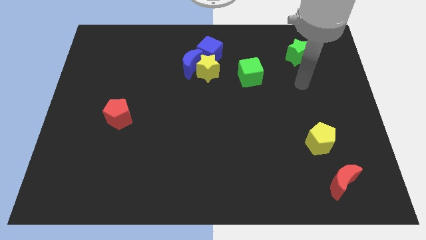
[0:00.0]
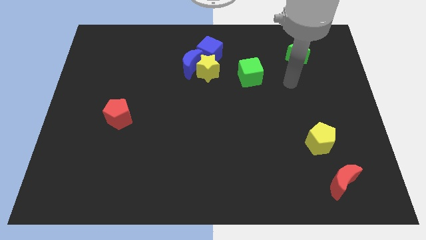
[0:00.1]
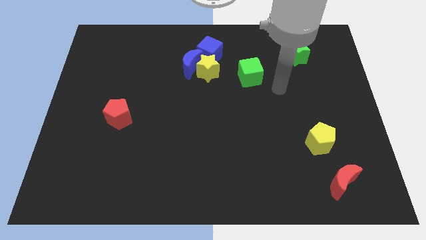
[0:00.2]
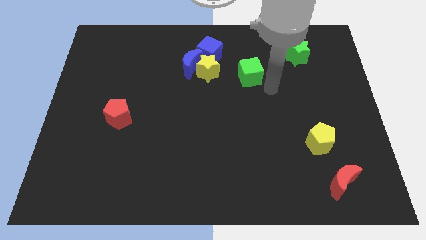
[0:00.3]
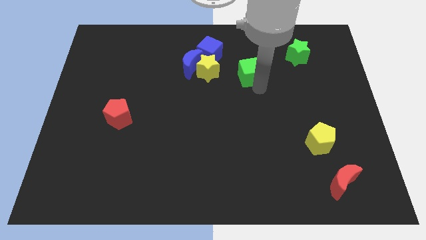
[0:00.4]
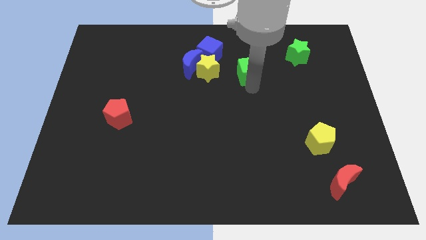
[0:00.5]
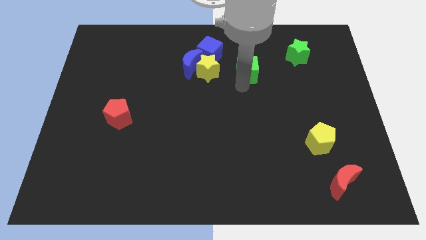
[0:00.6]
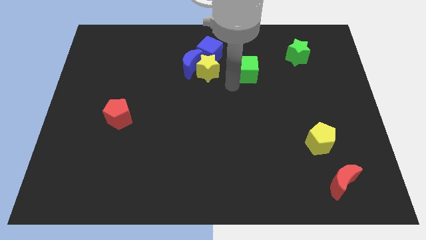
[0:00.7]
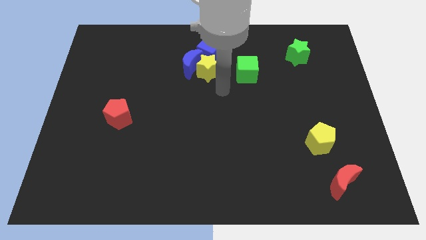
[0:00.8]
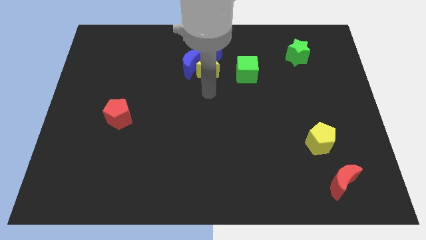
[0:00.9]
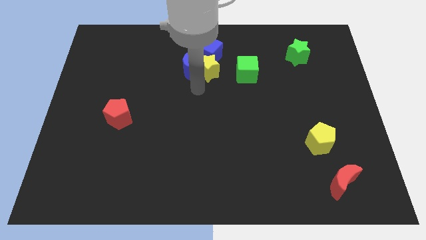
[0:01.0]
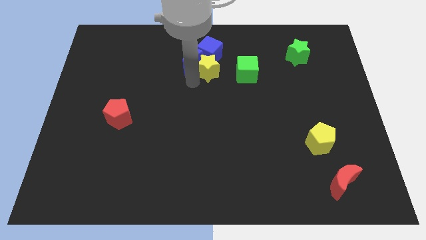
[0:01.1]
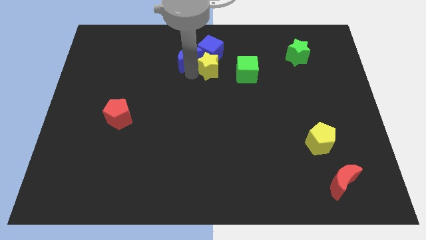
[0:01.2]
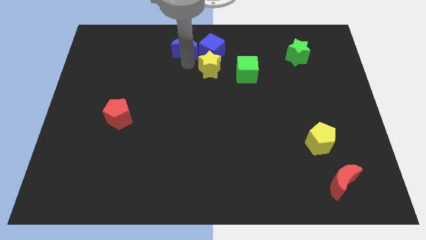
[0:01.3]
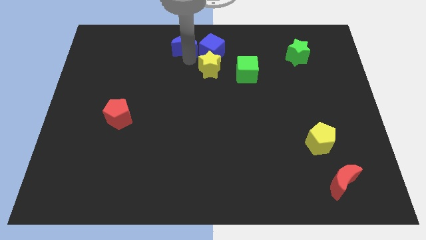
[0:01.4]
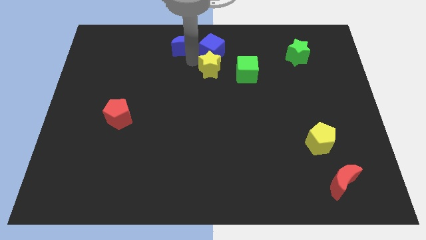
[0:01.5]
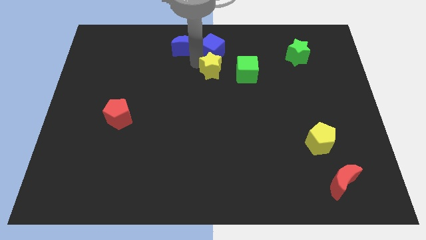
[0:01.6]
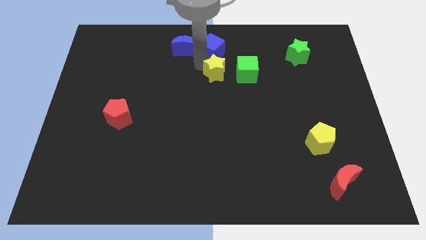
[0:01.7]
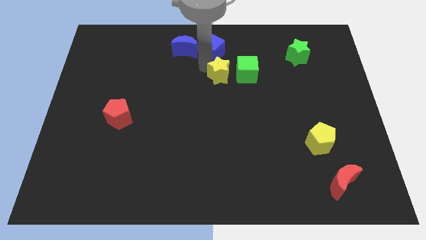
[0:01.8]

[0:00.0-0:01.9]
separate the yellow star from the blue moon and blue cube

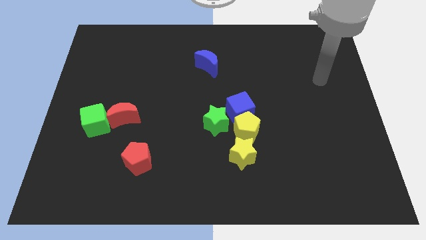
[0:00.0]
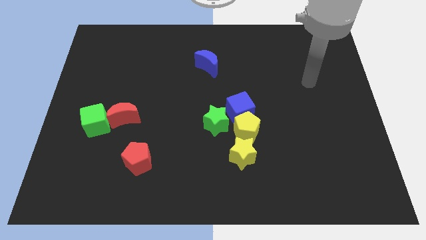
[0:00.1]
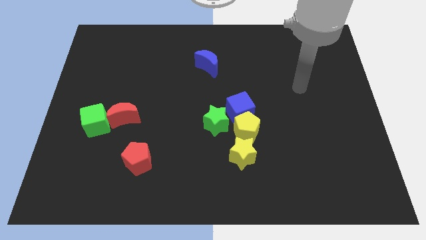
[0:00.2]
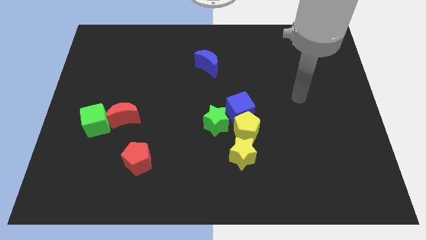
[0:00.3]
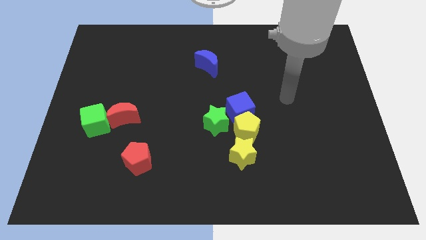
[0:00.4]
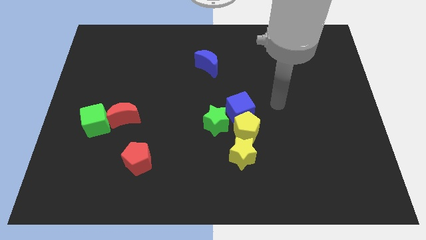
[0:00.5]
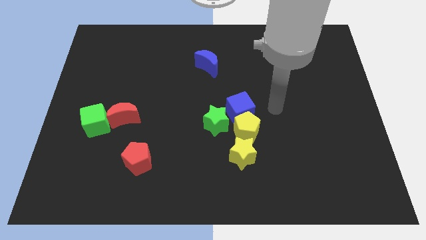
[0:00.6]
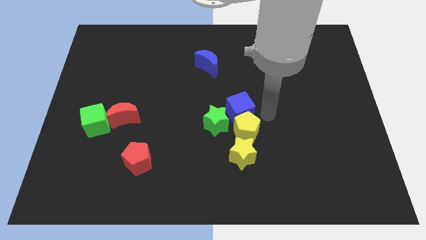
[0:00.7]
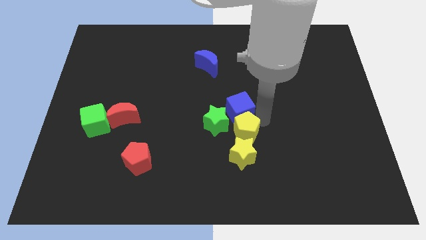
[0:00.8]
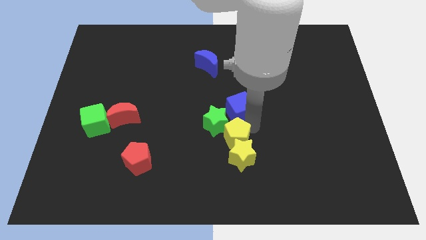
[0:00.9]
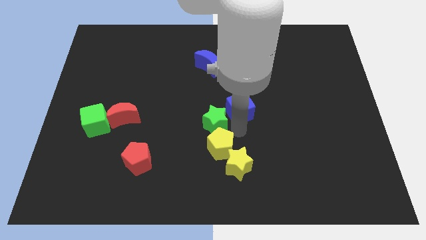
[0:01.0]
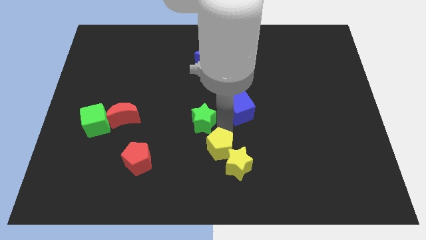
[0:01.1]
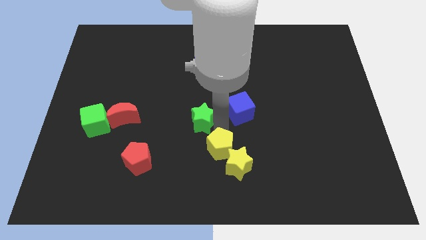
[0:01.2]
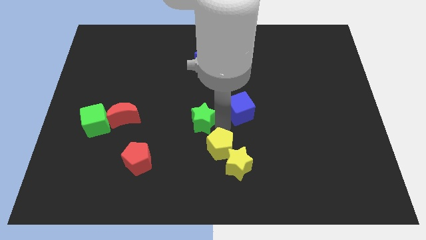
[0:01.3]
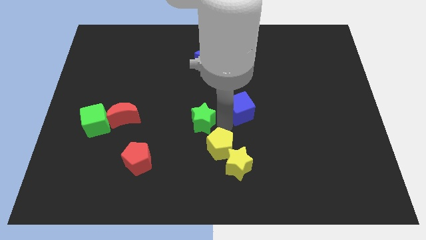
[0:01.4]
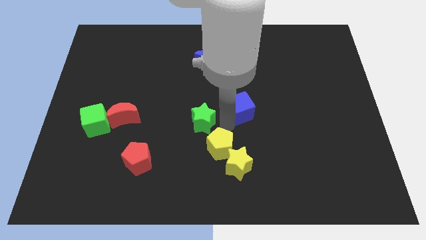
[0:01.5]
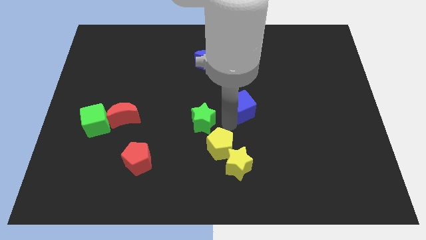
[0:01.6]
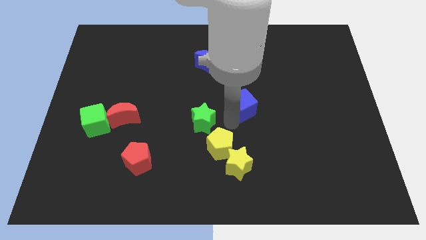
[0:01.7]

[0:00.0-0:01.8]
move the blue cube away from the yellow pentagon and green star

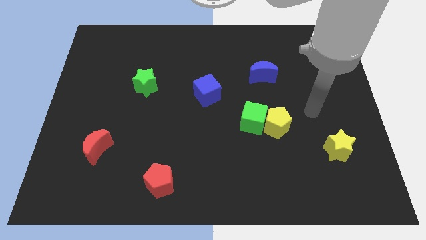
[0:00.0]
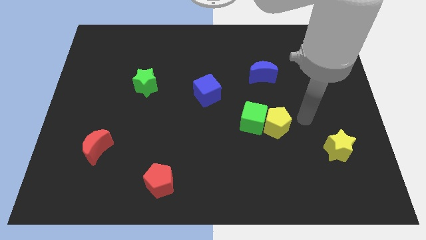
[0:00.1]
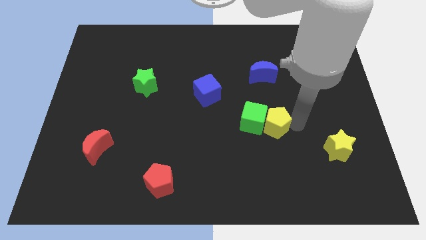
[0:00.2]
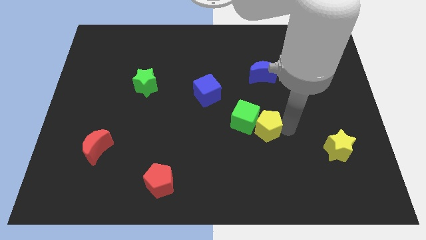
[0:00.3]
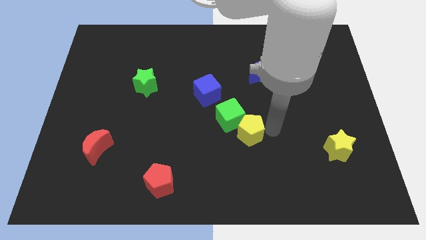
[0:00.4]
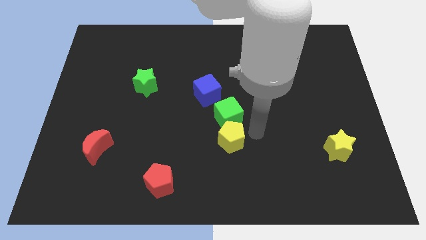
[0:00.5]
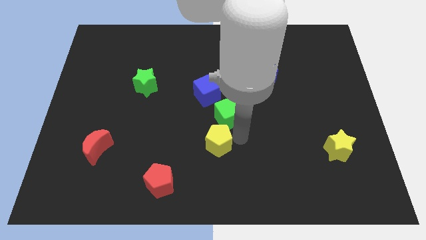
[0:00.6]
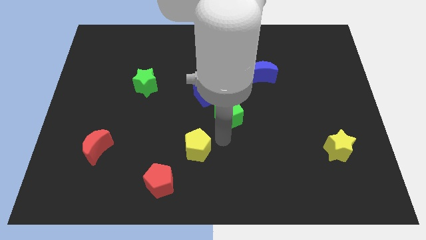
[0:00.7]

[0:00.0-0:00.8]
move the green cube away from the yellow pentagon

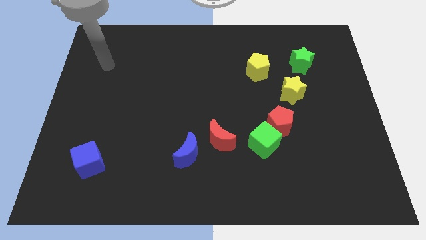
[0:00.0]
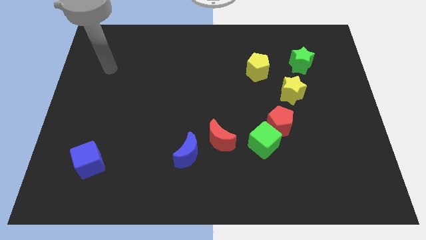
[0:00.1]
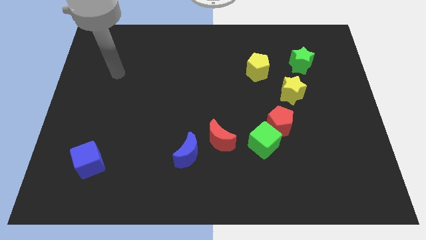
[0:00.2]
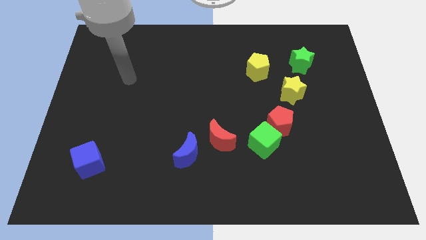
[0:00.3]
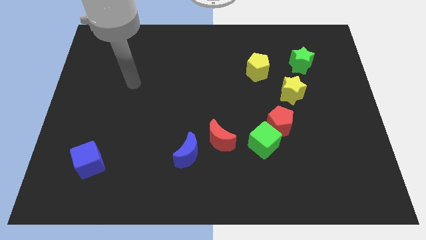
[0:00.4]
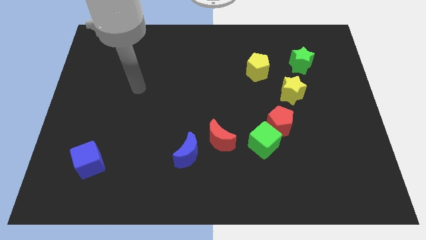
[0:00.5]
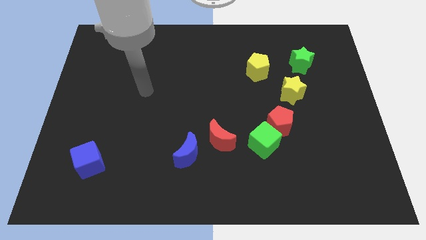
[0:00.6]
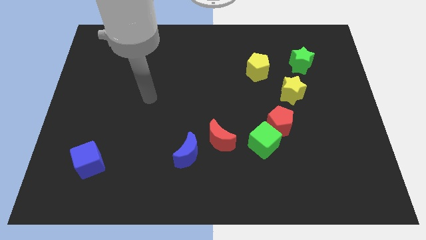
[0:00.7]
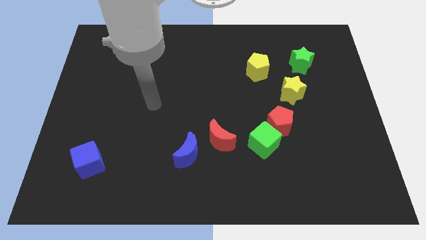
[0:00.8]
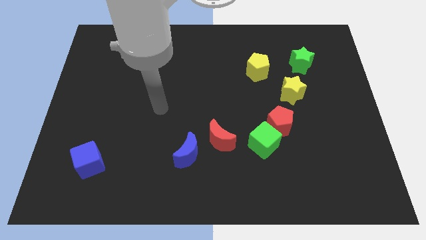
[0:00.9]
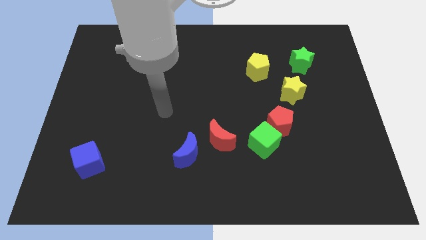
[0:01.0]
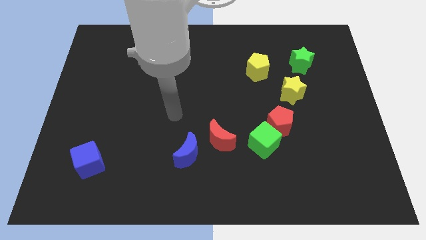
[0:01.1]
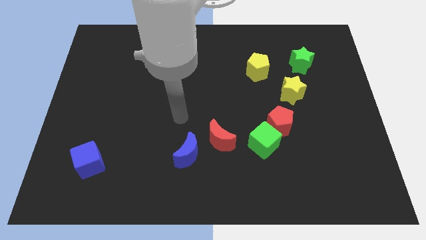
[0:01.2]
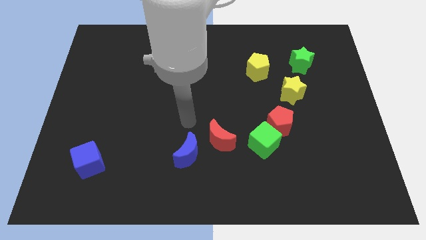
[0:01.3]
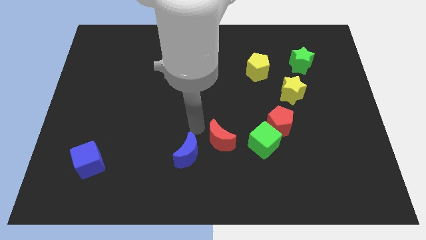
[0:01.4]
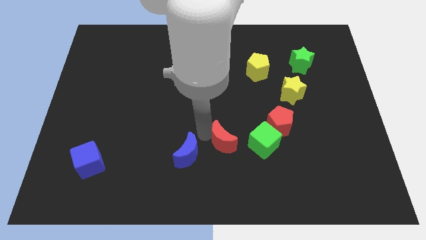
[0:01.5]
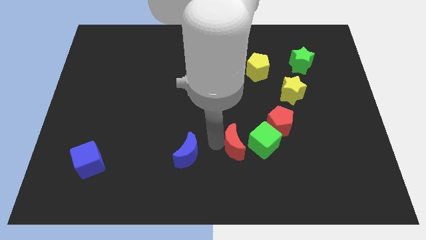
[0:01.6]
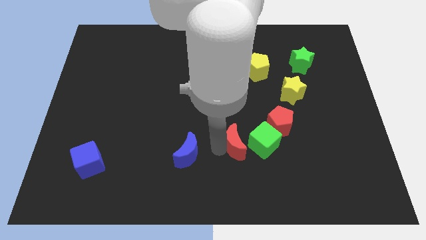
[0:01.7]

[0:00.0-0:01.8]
separate the blue moon from the red moon

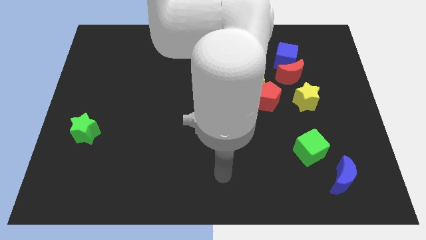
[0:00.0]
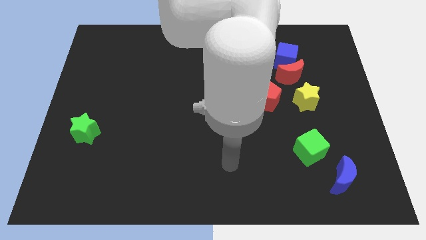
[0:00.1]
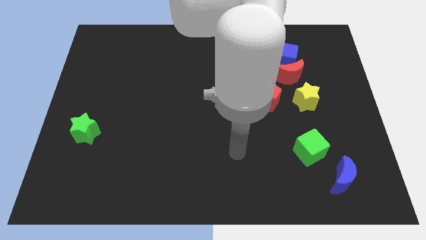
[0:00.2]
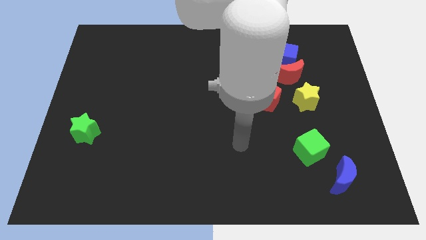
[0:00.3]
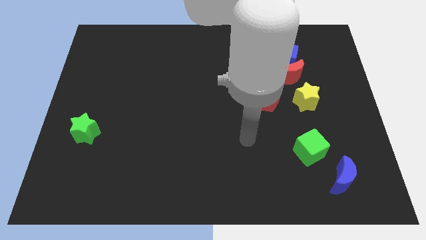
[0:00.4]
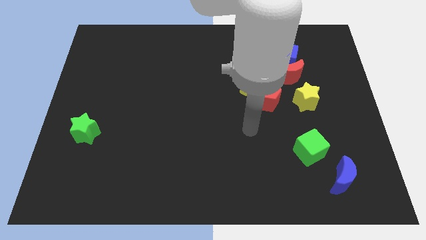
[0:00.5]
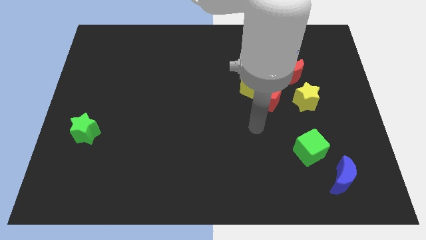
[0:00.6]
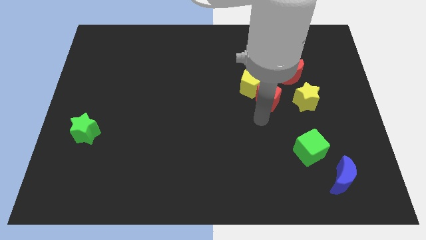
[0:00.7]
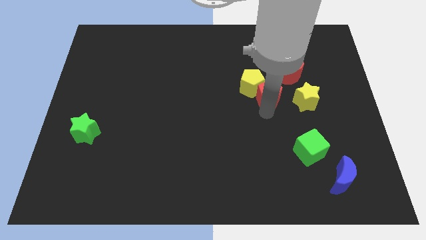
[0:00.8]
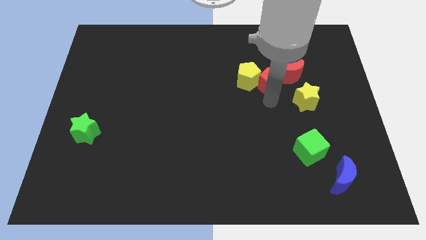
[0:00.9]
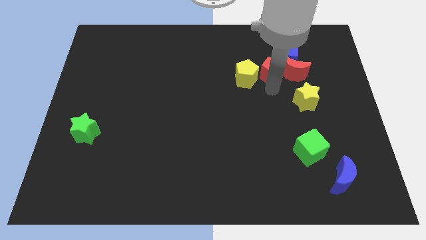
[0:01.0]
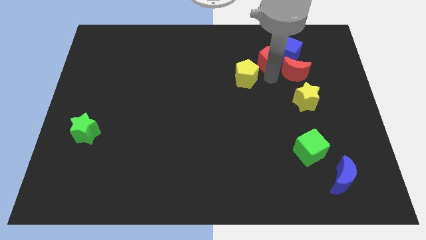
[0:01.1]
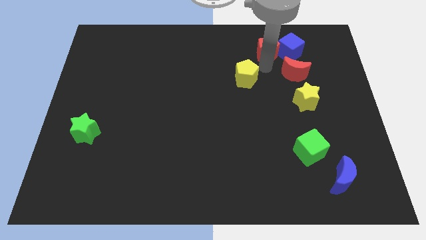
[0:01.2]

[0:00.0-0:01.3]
move the yellow pentagon away from the red pentagon

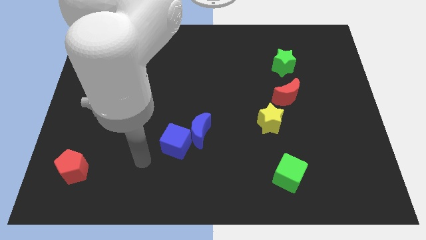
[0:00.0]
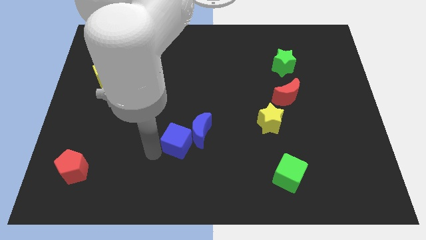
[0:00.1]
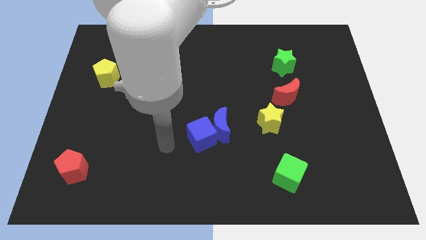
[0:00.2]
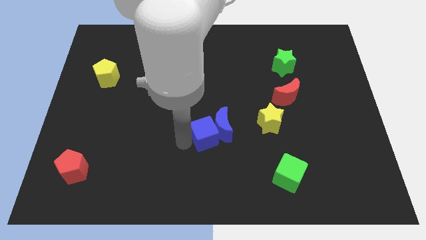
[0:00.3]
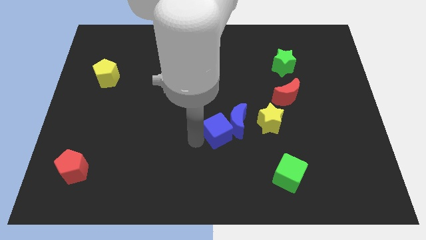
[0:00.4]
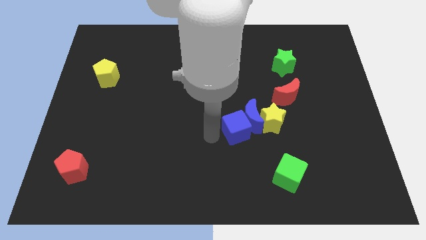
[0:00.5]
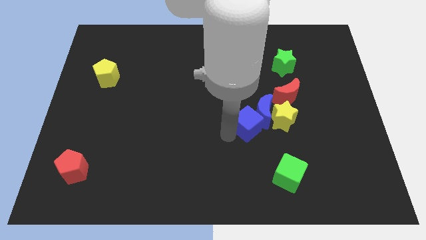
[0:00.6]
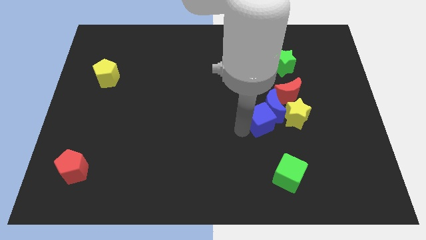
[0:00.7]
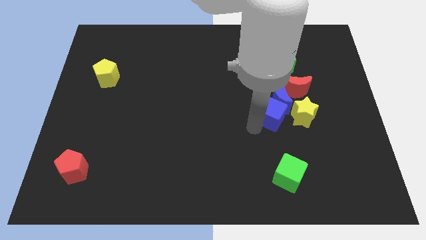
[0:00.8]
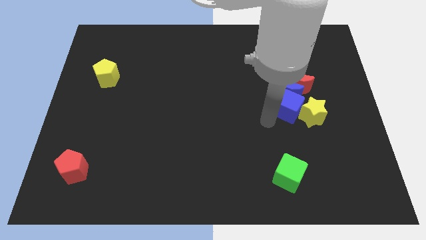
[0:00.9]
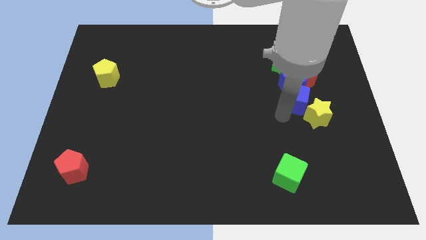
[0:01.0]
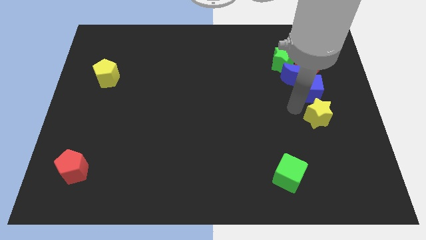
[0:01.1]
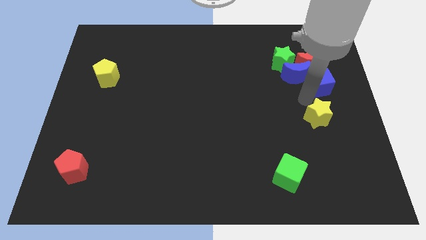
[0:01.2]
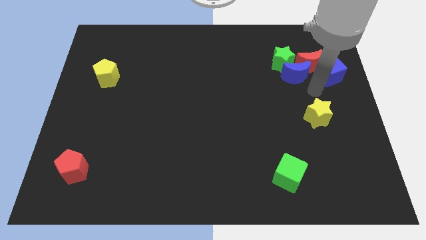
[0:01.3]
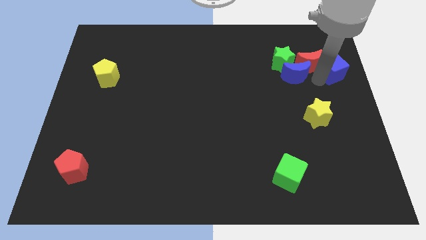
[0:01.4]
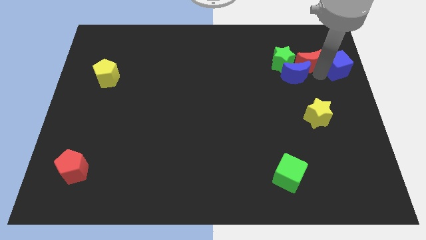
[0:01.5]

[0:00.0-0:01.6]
move the blue moon away from the blue cube
